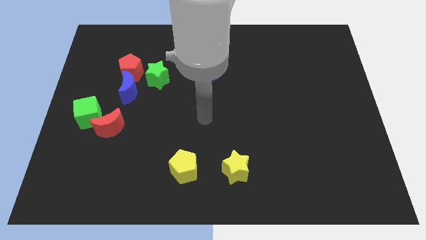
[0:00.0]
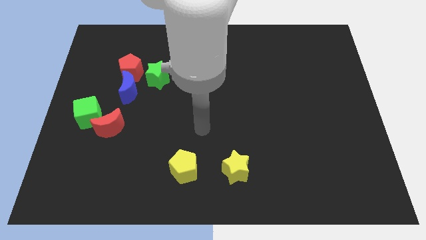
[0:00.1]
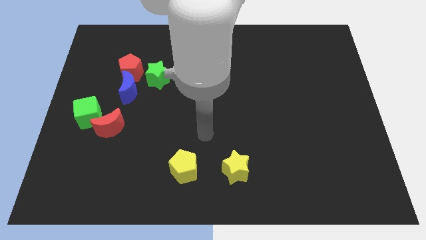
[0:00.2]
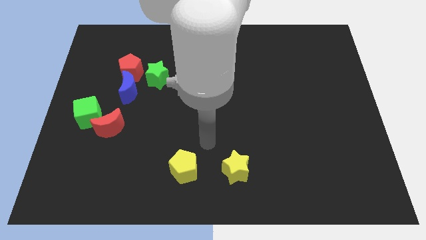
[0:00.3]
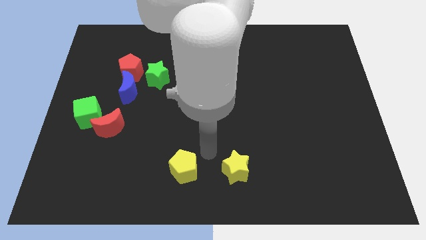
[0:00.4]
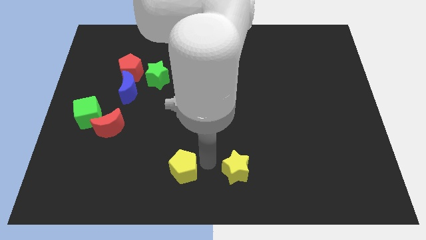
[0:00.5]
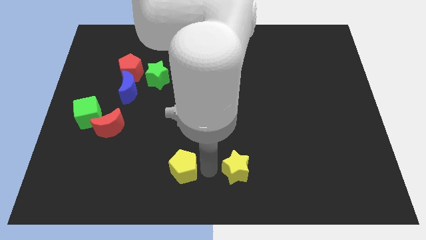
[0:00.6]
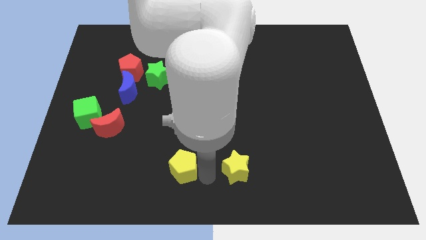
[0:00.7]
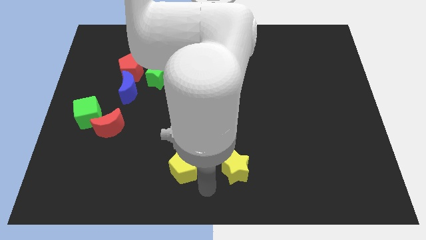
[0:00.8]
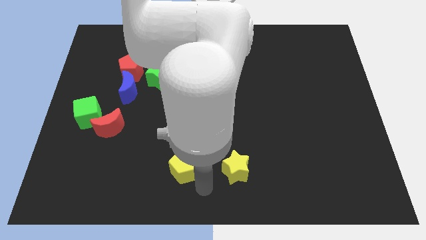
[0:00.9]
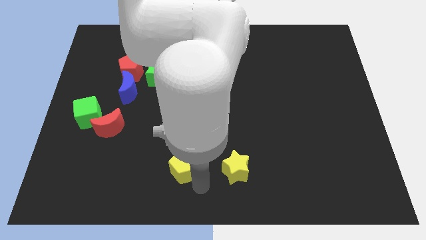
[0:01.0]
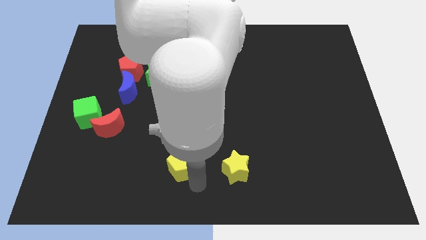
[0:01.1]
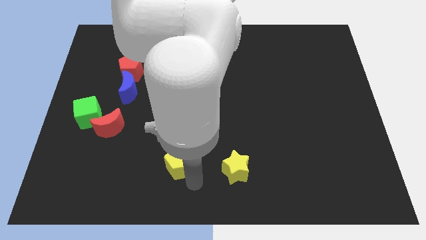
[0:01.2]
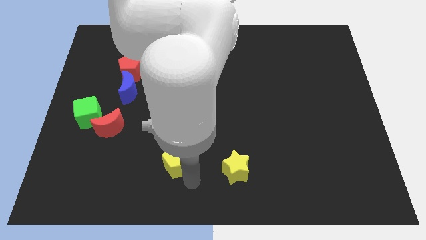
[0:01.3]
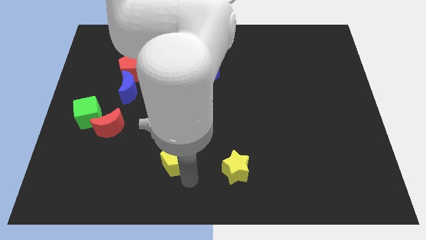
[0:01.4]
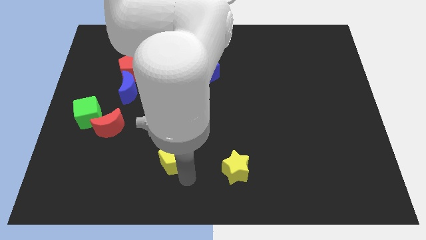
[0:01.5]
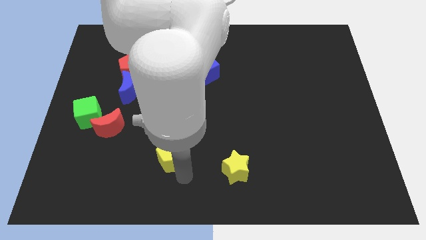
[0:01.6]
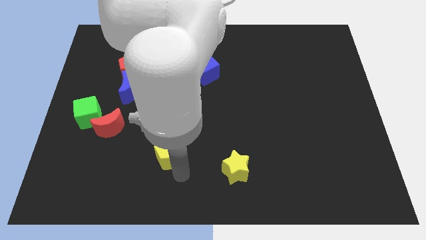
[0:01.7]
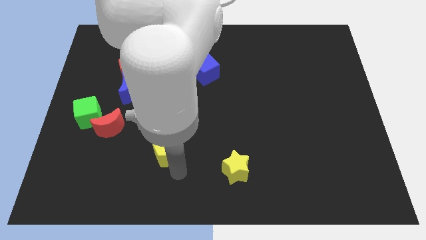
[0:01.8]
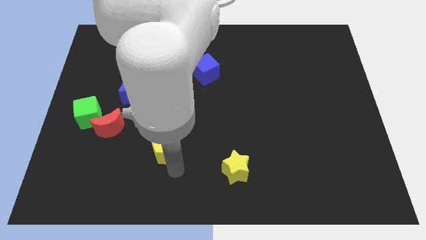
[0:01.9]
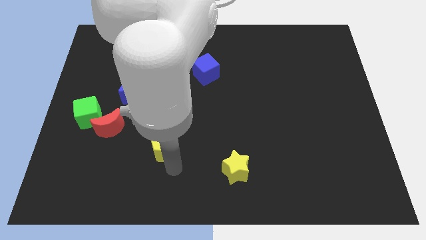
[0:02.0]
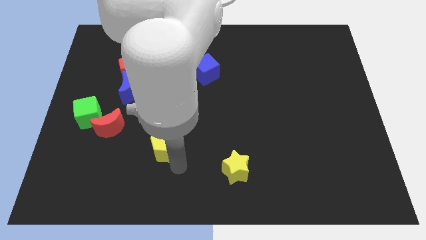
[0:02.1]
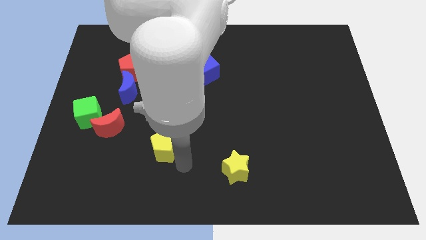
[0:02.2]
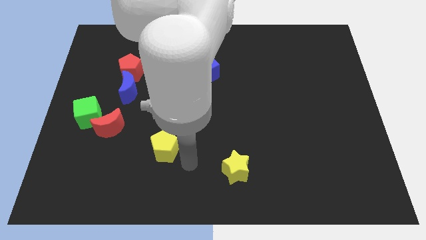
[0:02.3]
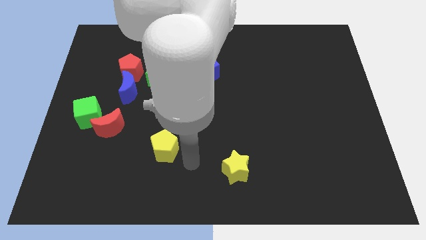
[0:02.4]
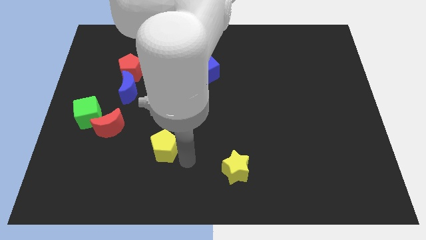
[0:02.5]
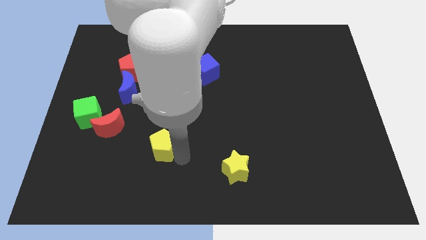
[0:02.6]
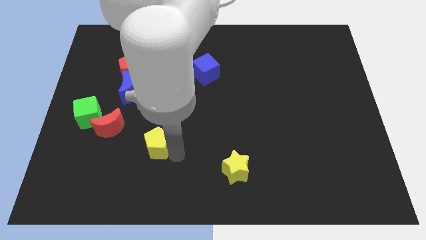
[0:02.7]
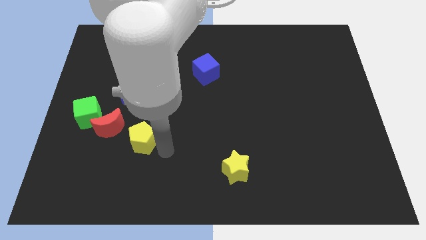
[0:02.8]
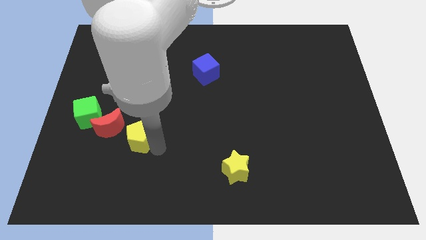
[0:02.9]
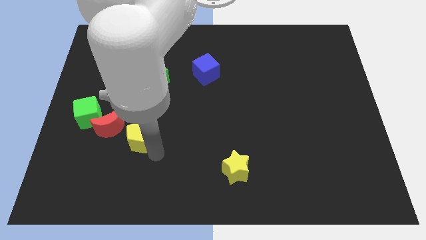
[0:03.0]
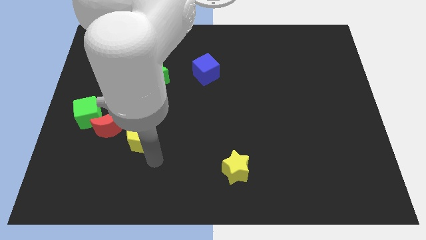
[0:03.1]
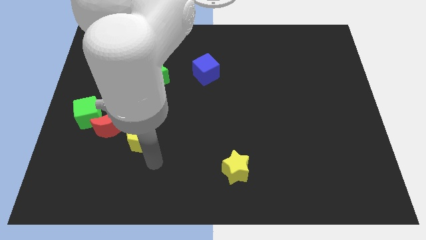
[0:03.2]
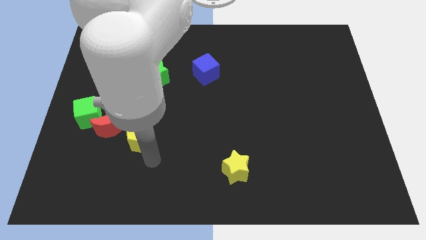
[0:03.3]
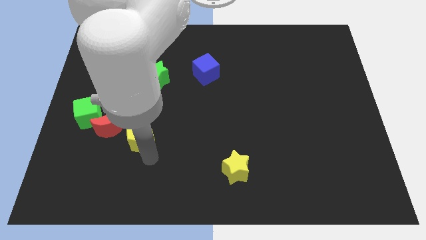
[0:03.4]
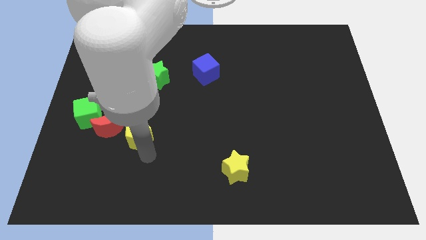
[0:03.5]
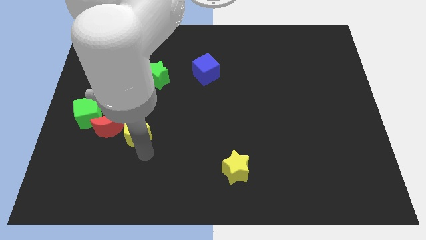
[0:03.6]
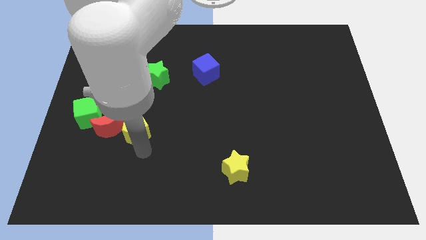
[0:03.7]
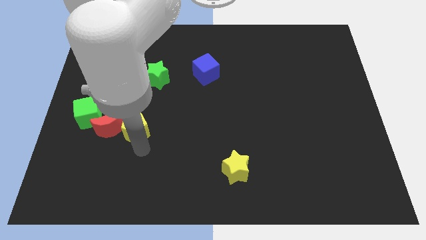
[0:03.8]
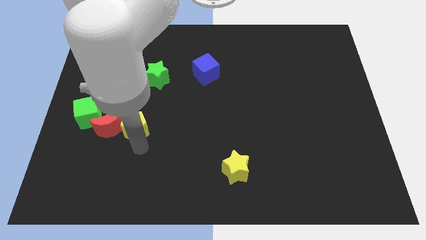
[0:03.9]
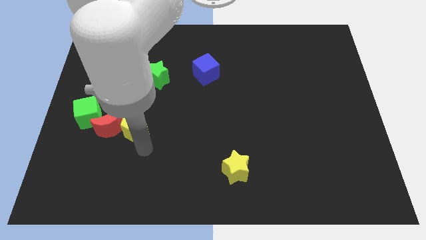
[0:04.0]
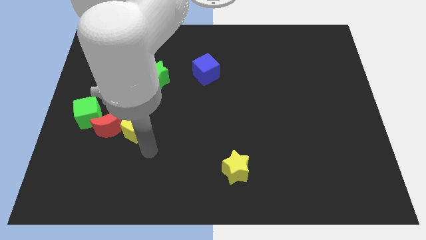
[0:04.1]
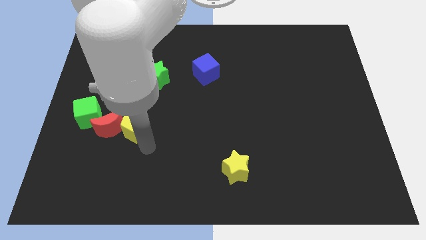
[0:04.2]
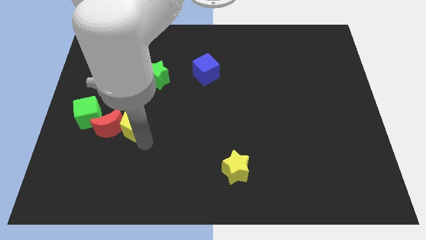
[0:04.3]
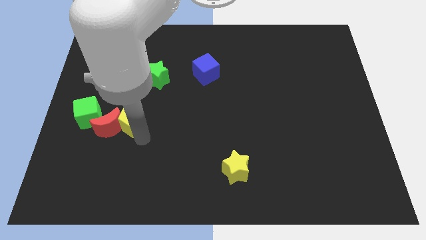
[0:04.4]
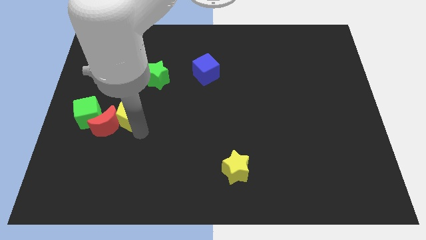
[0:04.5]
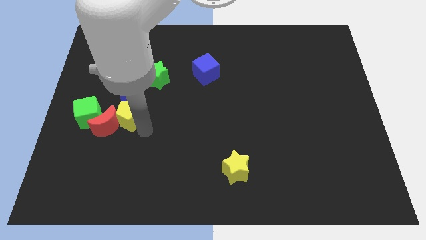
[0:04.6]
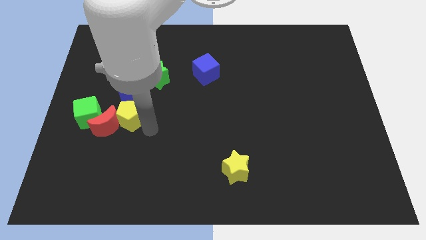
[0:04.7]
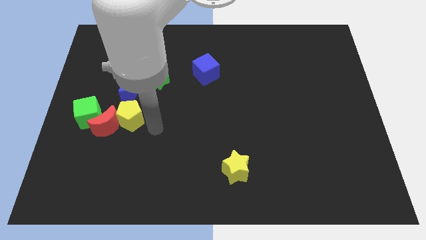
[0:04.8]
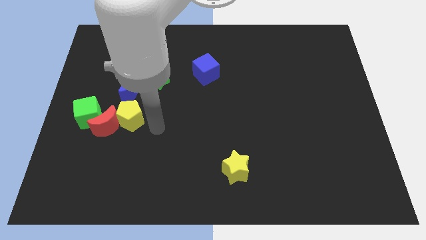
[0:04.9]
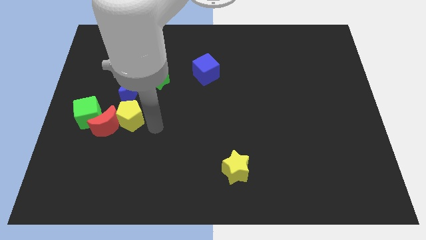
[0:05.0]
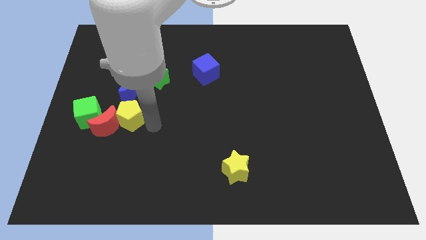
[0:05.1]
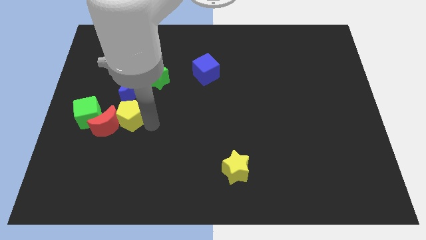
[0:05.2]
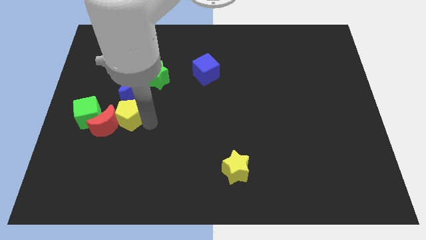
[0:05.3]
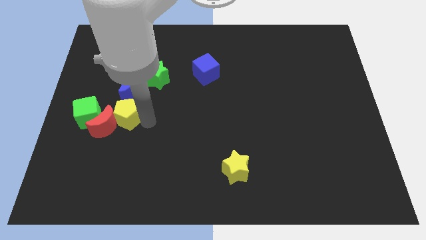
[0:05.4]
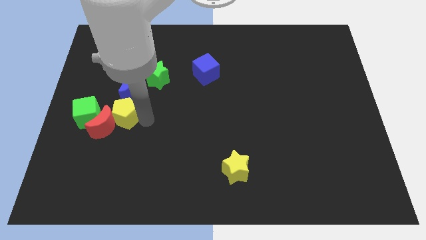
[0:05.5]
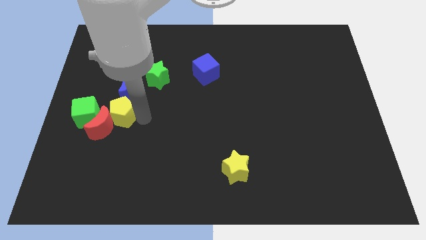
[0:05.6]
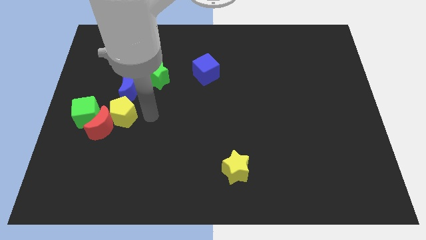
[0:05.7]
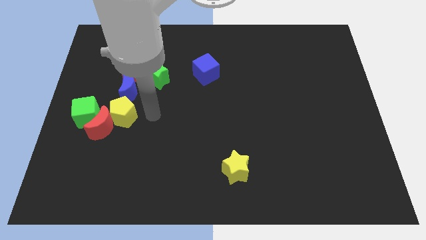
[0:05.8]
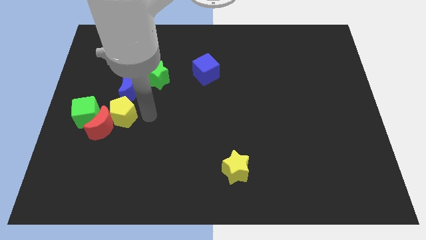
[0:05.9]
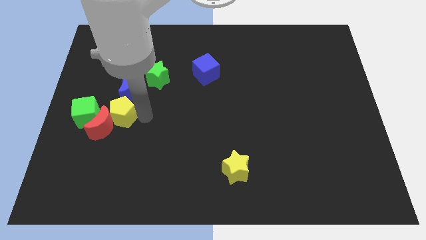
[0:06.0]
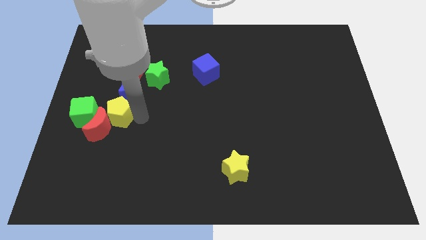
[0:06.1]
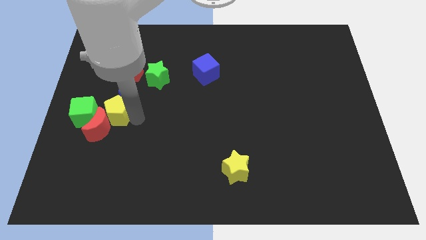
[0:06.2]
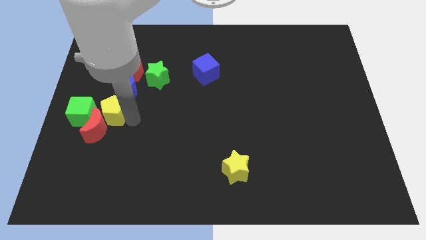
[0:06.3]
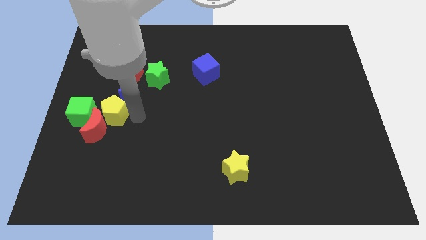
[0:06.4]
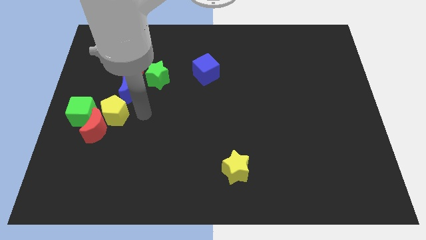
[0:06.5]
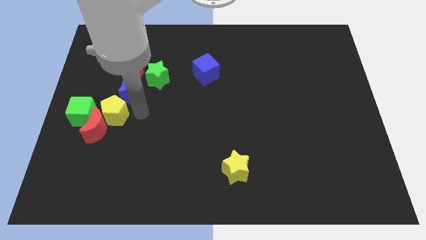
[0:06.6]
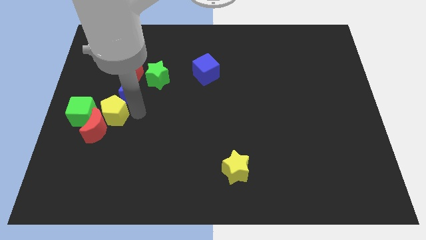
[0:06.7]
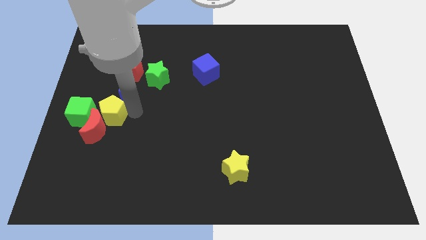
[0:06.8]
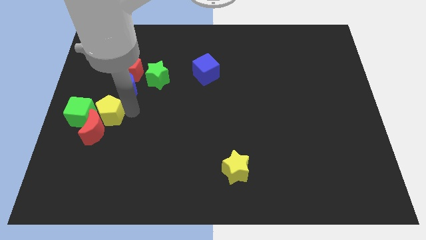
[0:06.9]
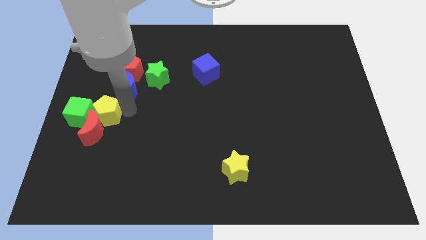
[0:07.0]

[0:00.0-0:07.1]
push the yellow pentagon next to the green cube

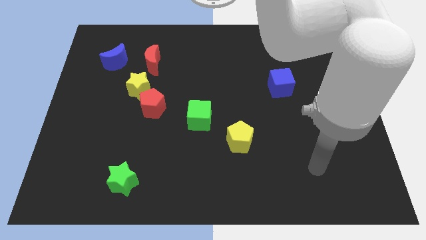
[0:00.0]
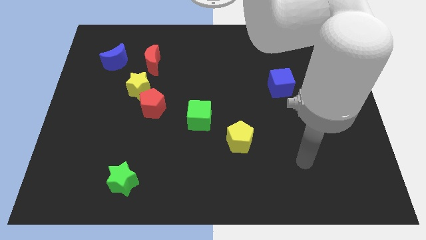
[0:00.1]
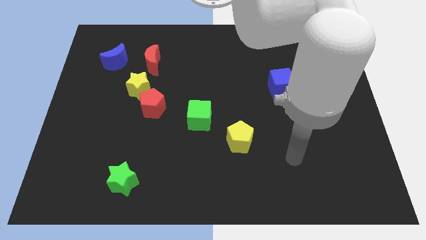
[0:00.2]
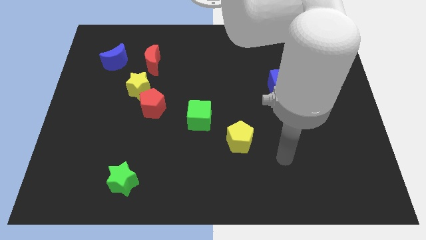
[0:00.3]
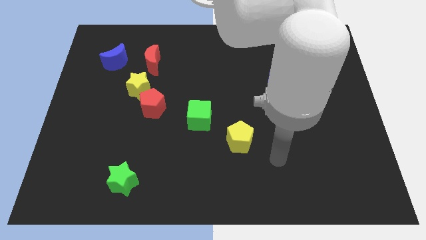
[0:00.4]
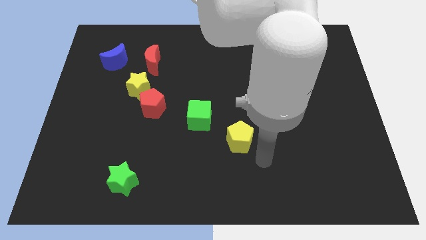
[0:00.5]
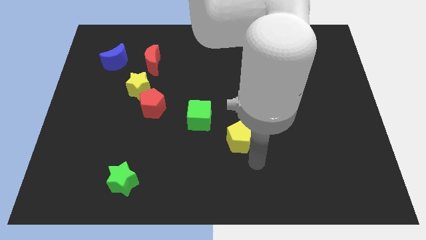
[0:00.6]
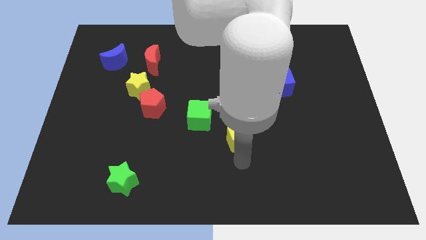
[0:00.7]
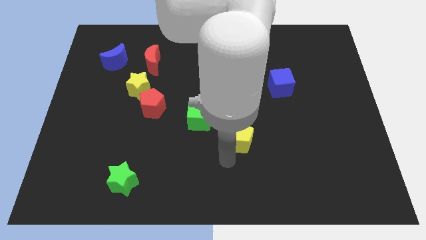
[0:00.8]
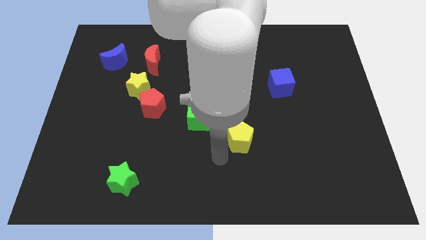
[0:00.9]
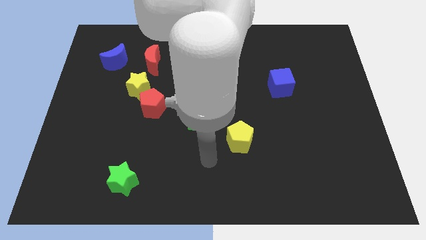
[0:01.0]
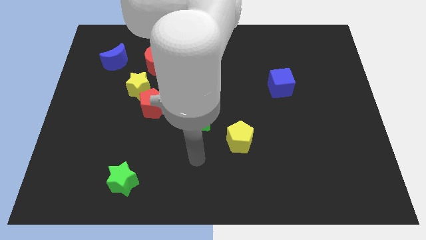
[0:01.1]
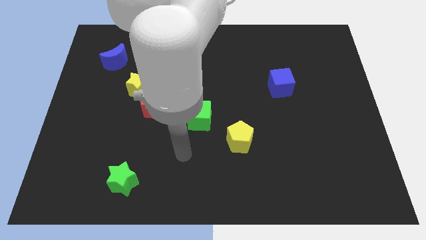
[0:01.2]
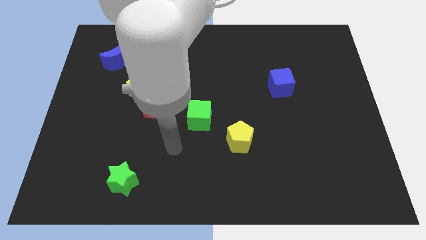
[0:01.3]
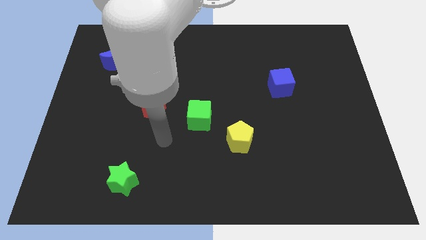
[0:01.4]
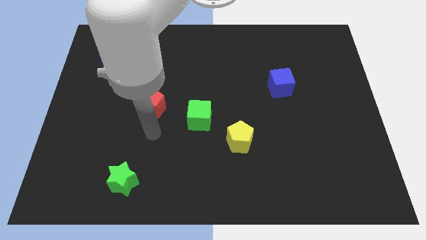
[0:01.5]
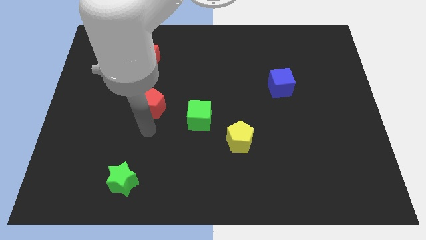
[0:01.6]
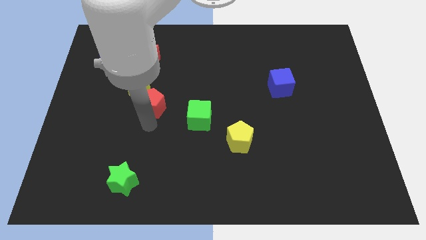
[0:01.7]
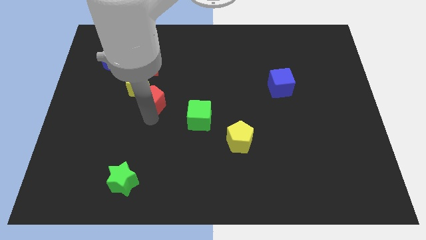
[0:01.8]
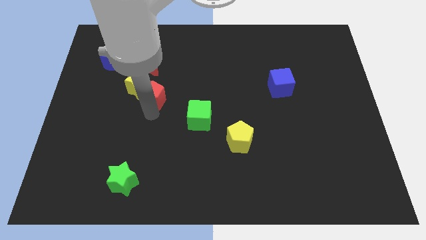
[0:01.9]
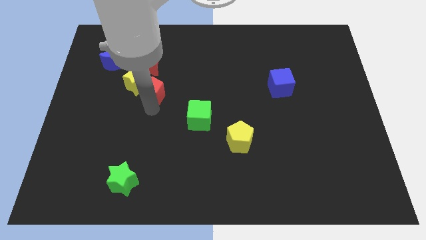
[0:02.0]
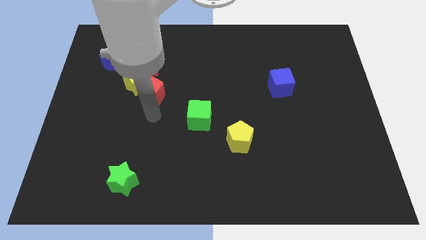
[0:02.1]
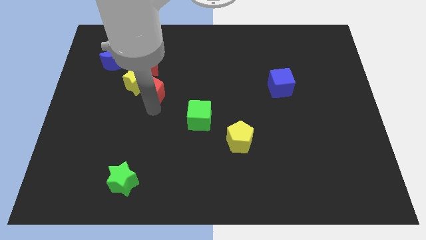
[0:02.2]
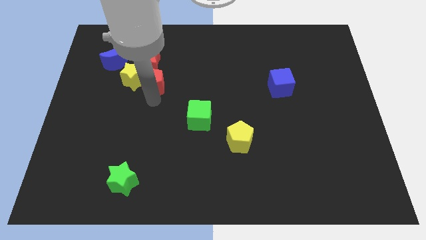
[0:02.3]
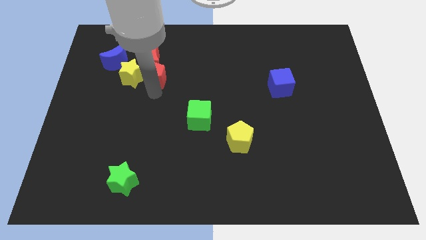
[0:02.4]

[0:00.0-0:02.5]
push the red pentagon next to the red moon
